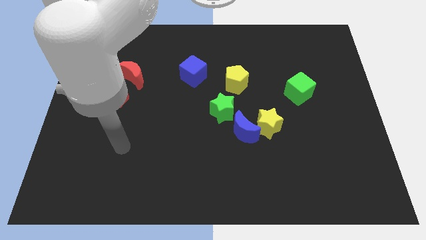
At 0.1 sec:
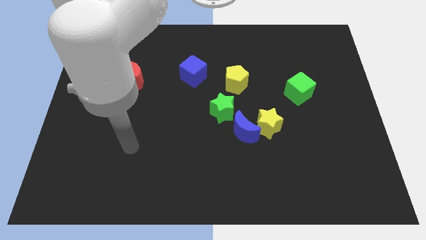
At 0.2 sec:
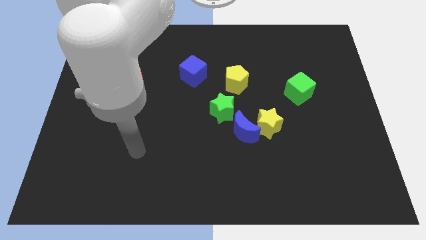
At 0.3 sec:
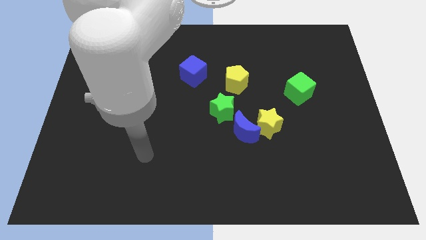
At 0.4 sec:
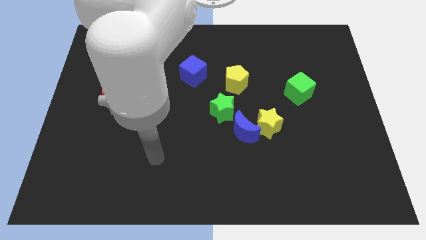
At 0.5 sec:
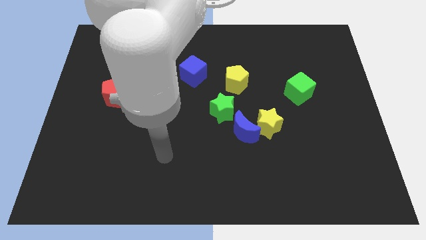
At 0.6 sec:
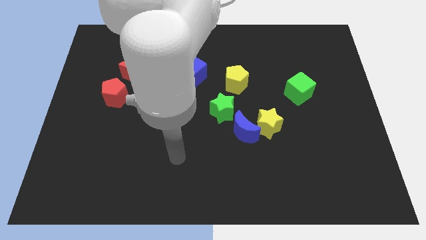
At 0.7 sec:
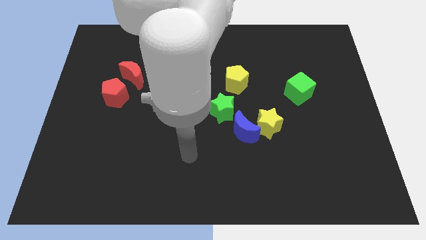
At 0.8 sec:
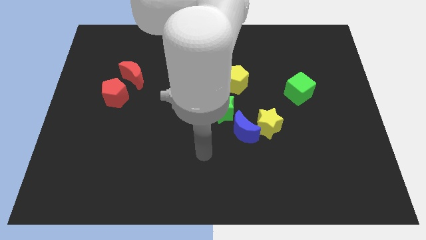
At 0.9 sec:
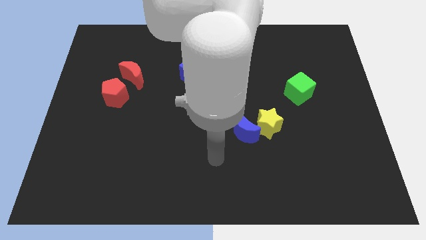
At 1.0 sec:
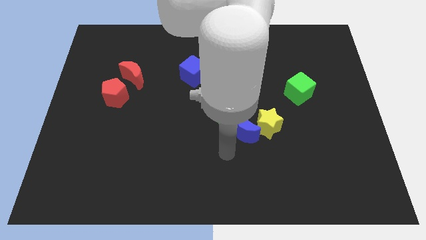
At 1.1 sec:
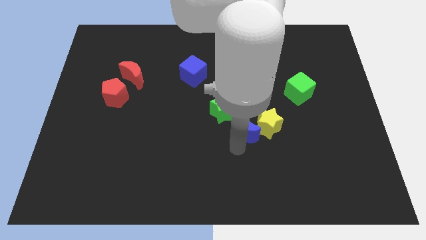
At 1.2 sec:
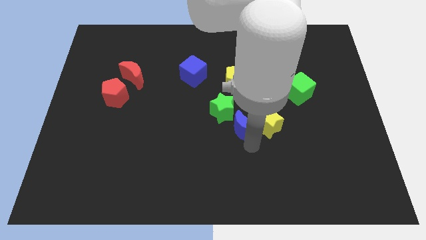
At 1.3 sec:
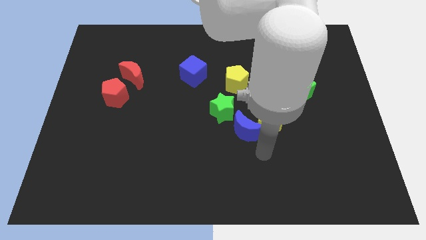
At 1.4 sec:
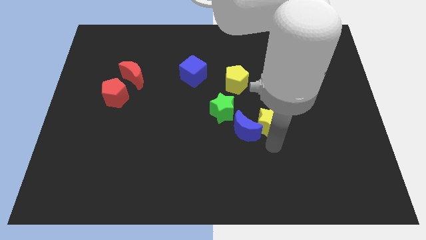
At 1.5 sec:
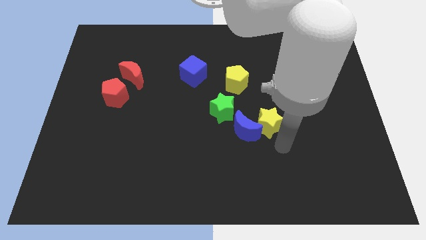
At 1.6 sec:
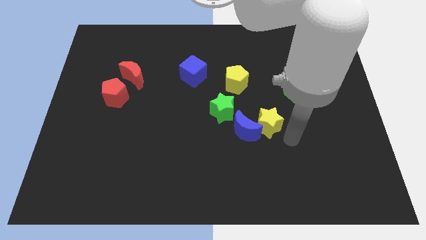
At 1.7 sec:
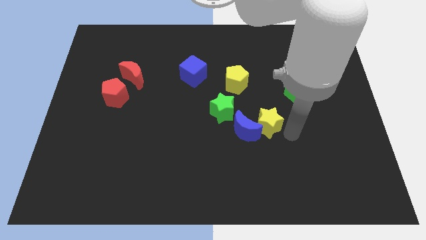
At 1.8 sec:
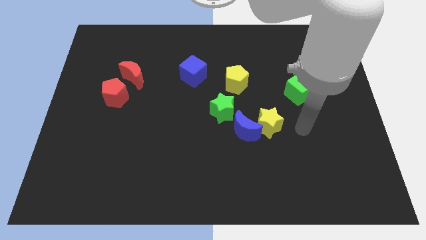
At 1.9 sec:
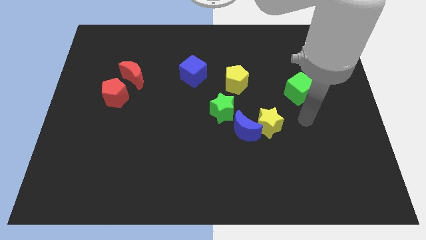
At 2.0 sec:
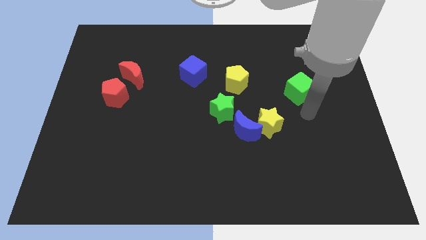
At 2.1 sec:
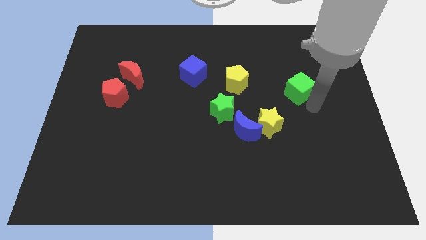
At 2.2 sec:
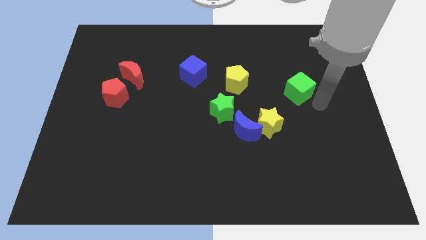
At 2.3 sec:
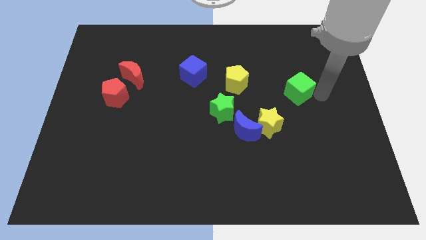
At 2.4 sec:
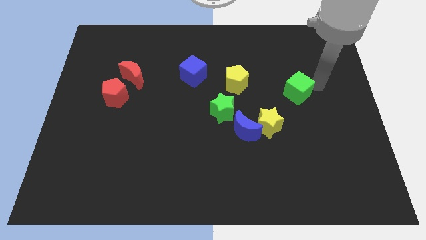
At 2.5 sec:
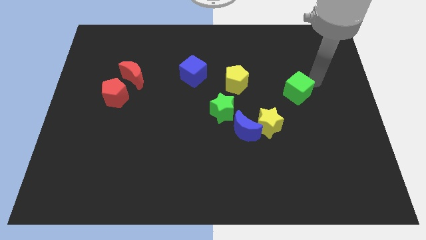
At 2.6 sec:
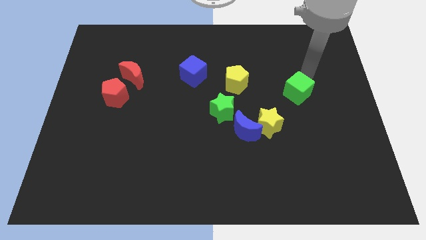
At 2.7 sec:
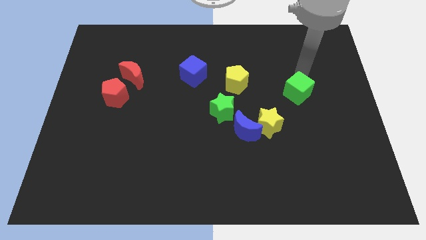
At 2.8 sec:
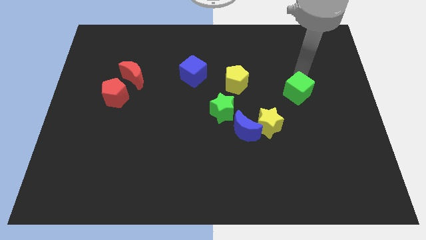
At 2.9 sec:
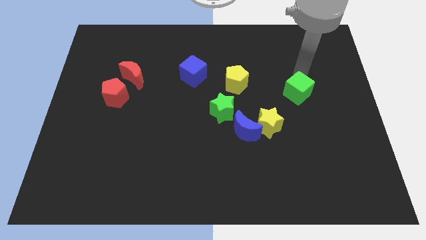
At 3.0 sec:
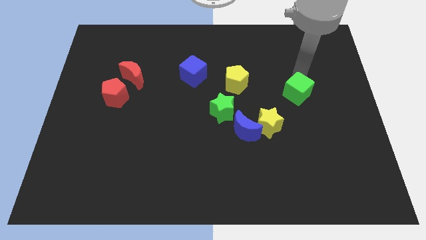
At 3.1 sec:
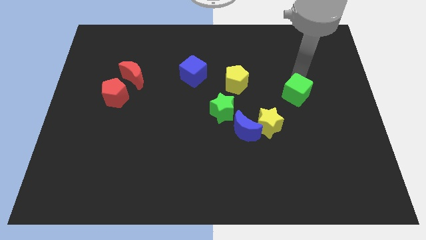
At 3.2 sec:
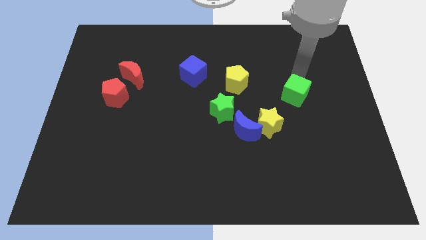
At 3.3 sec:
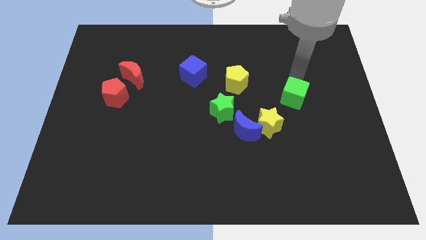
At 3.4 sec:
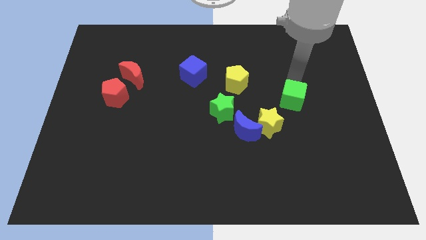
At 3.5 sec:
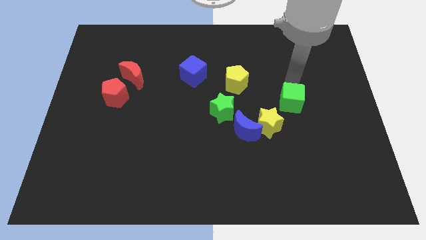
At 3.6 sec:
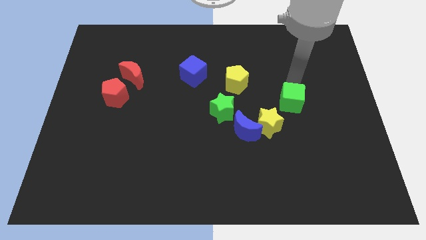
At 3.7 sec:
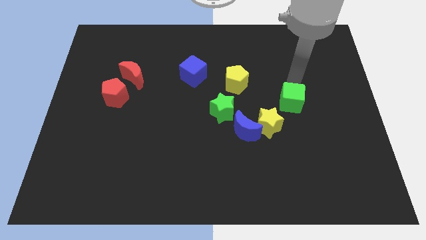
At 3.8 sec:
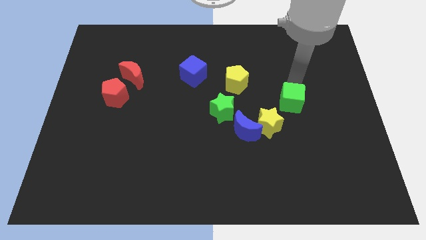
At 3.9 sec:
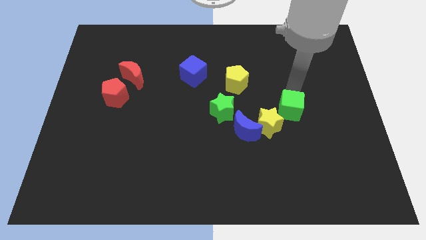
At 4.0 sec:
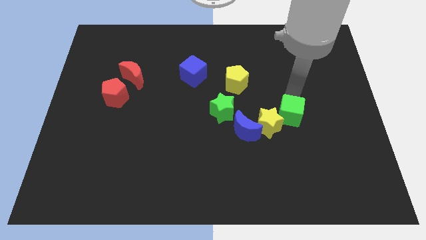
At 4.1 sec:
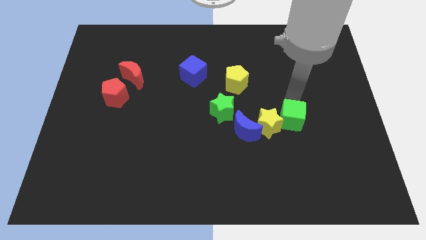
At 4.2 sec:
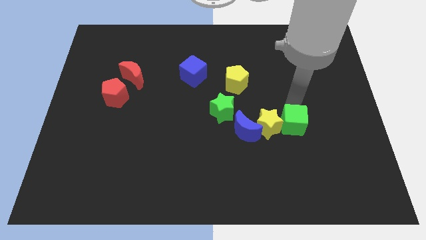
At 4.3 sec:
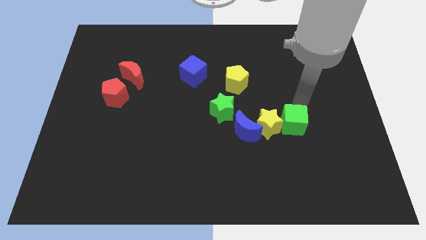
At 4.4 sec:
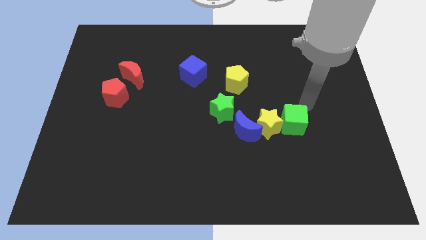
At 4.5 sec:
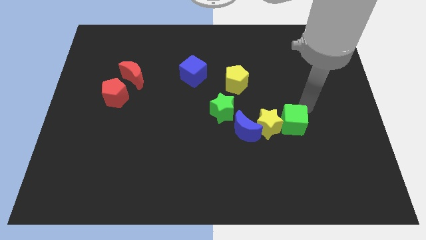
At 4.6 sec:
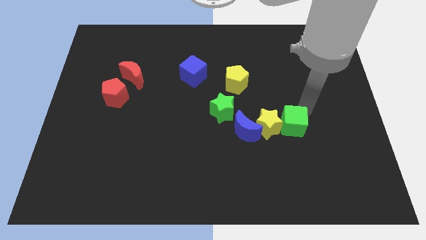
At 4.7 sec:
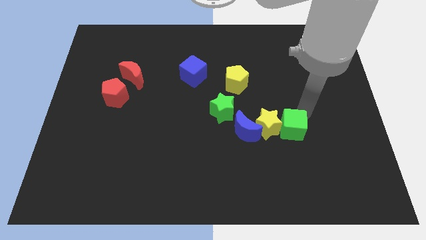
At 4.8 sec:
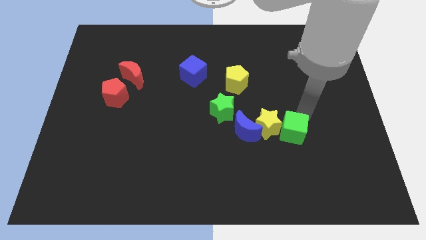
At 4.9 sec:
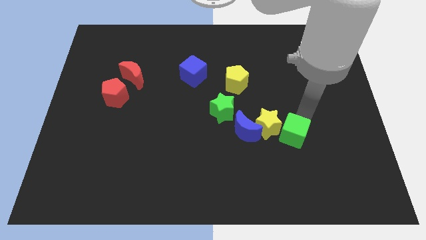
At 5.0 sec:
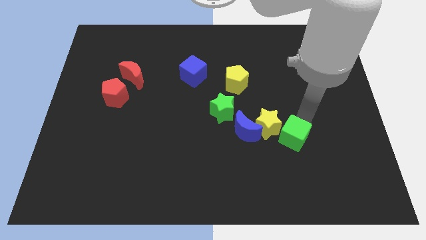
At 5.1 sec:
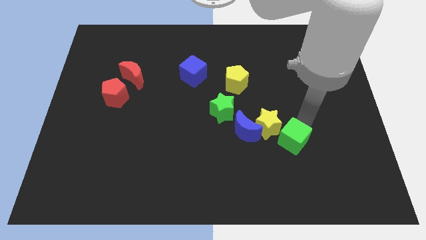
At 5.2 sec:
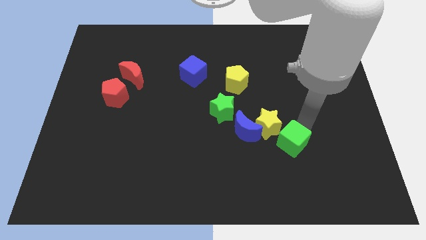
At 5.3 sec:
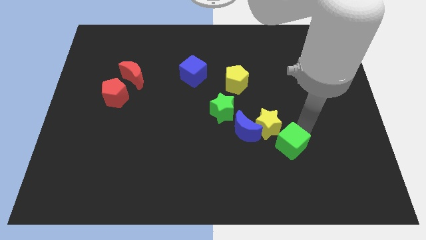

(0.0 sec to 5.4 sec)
put the green cube to the bottom right of the blue moon

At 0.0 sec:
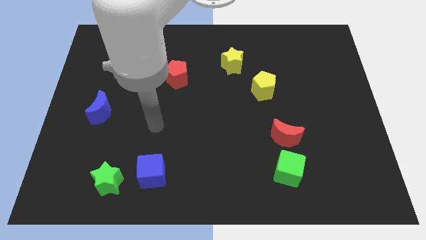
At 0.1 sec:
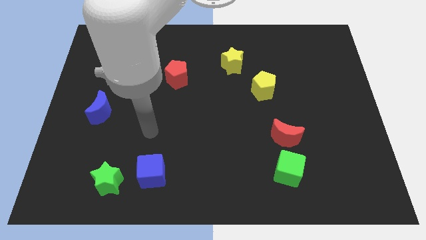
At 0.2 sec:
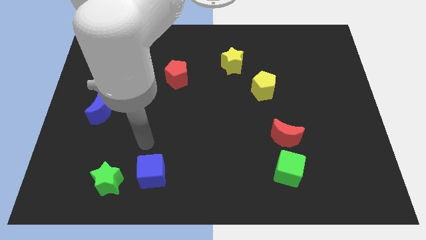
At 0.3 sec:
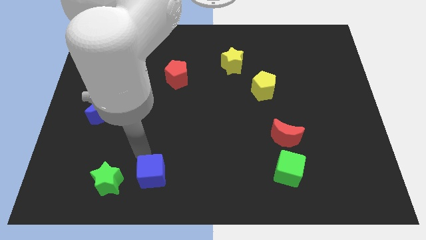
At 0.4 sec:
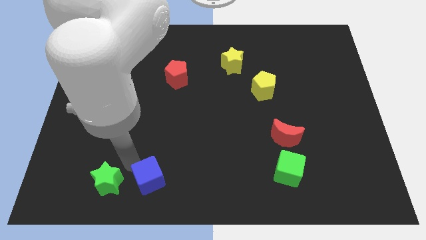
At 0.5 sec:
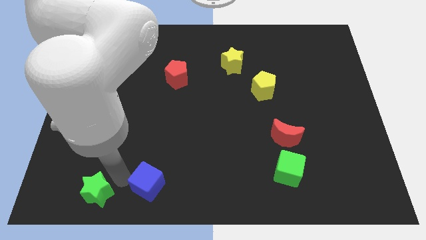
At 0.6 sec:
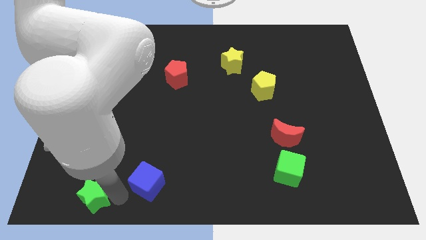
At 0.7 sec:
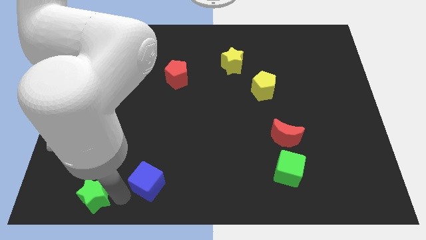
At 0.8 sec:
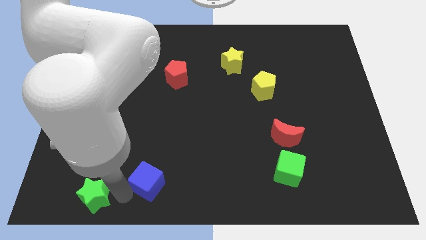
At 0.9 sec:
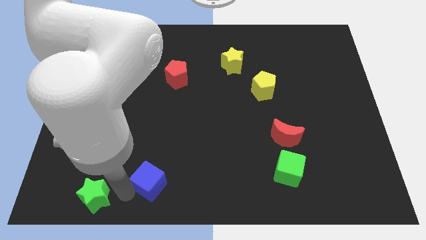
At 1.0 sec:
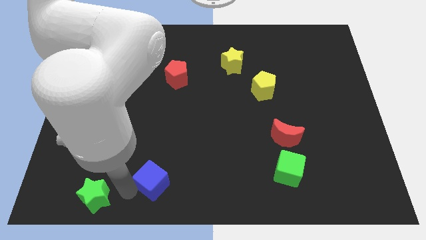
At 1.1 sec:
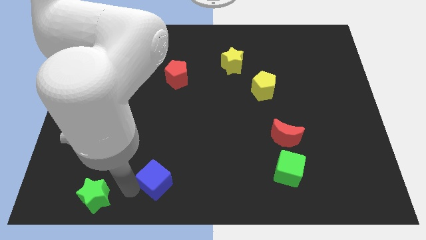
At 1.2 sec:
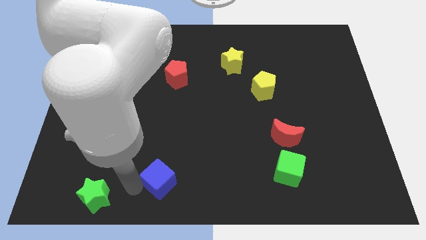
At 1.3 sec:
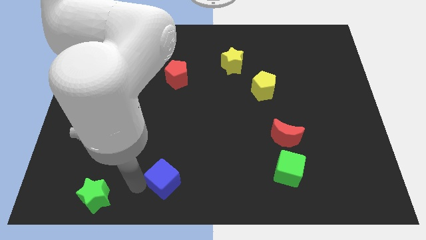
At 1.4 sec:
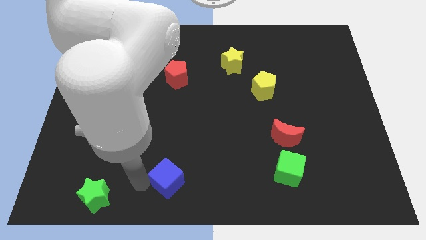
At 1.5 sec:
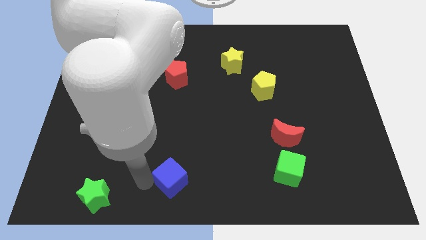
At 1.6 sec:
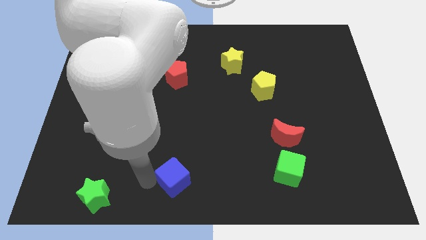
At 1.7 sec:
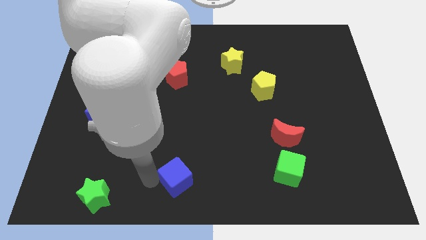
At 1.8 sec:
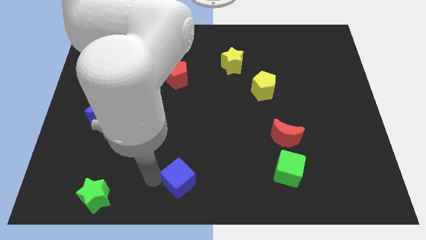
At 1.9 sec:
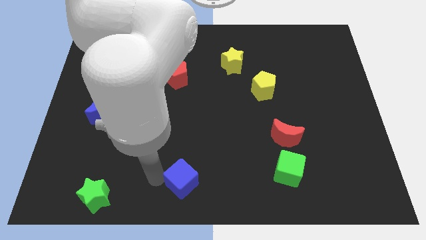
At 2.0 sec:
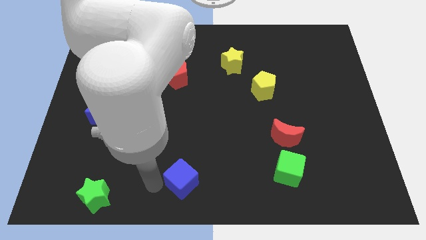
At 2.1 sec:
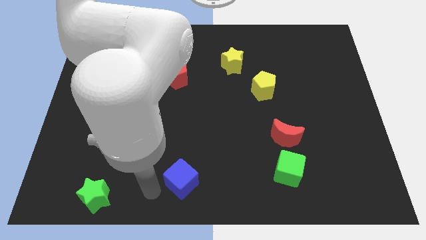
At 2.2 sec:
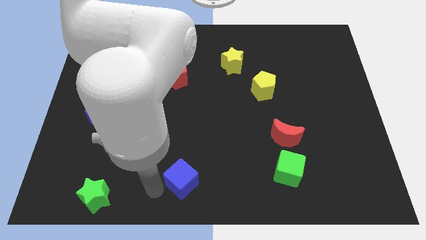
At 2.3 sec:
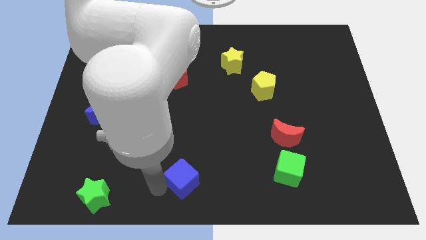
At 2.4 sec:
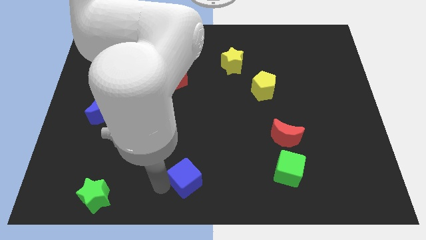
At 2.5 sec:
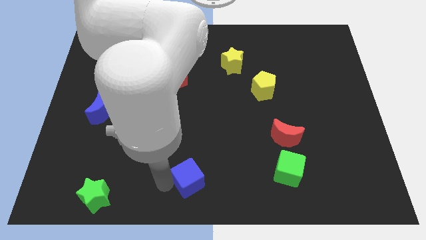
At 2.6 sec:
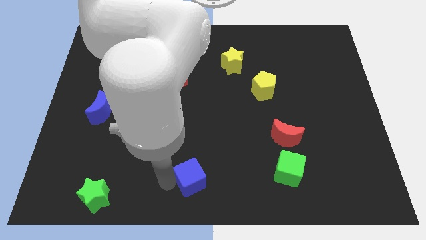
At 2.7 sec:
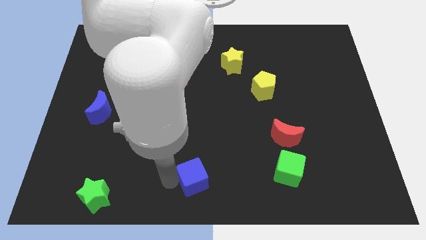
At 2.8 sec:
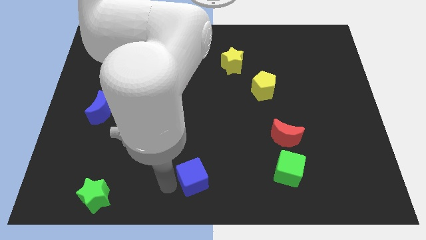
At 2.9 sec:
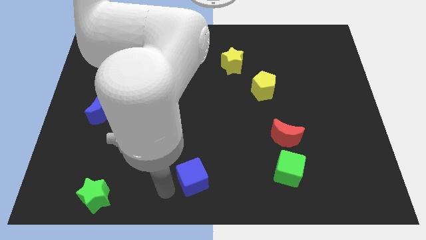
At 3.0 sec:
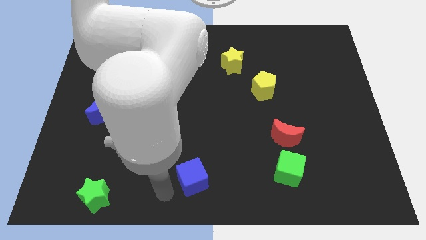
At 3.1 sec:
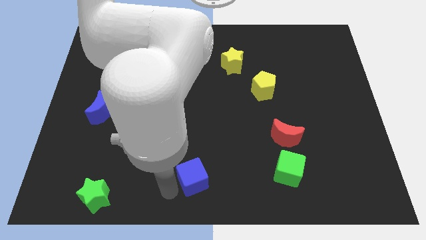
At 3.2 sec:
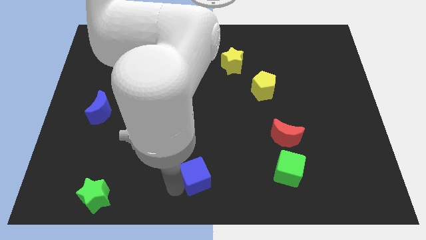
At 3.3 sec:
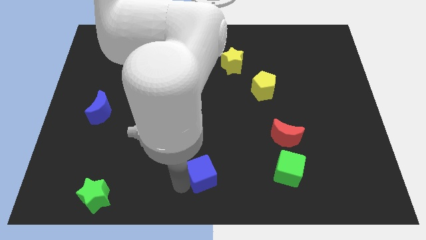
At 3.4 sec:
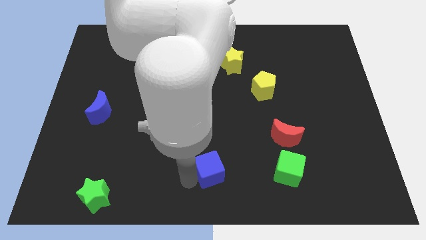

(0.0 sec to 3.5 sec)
put the blue cube left of the green cube
